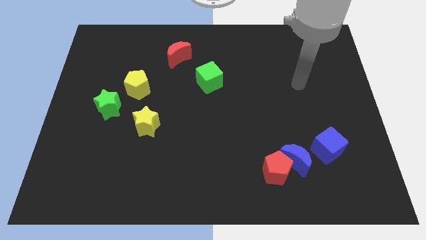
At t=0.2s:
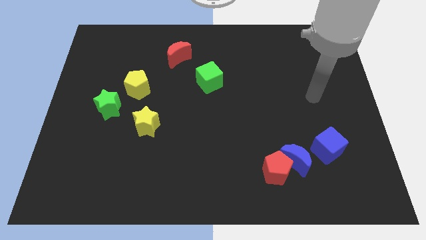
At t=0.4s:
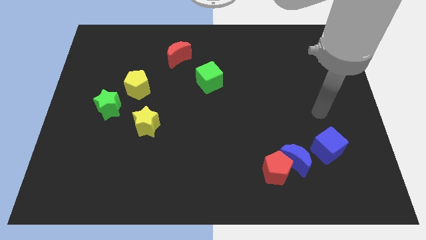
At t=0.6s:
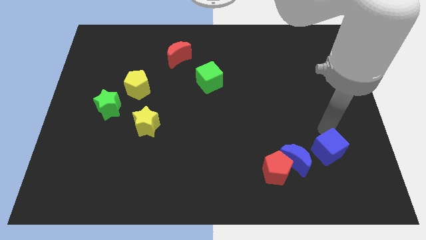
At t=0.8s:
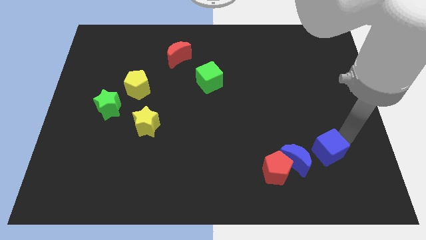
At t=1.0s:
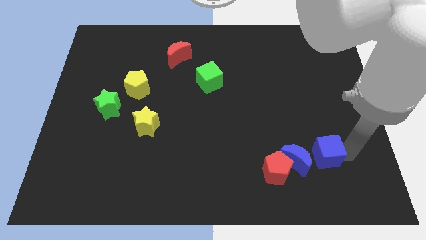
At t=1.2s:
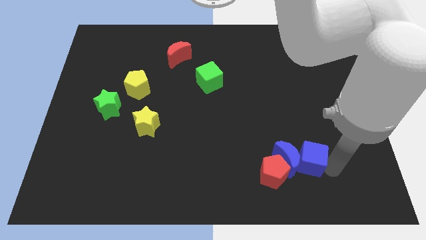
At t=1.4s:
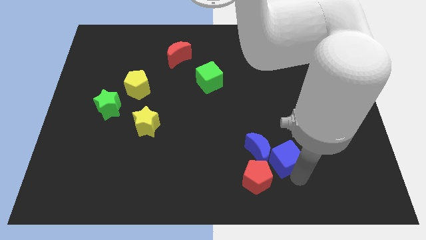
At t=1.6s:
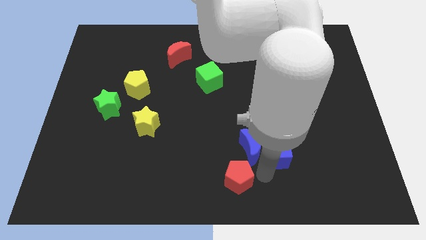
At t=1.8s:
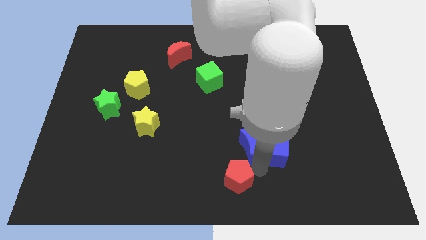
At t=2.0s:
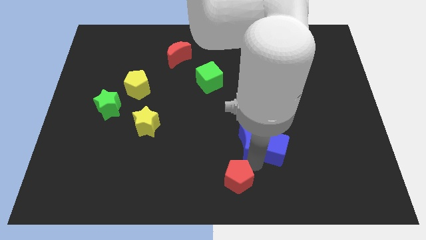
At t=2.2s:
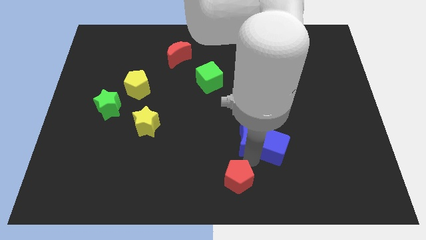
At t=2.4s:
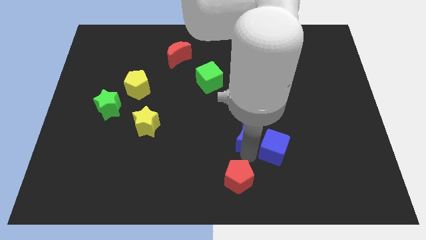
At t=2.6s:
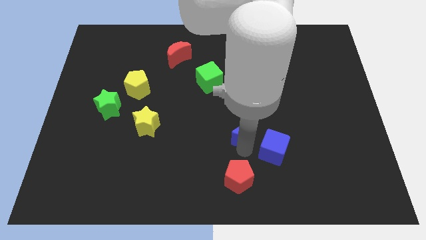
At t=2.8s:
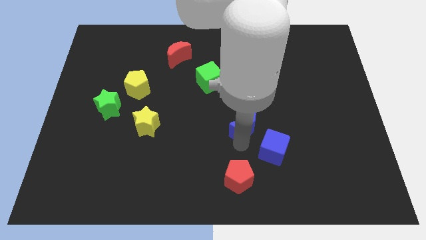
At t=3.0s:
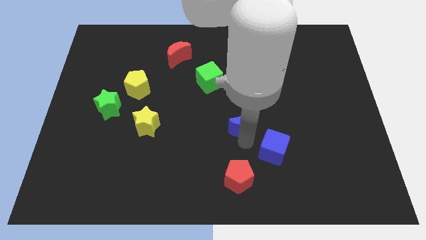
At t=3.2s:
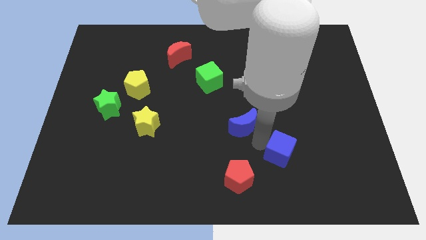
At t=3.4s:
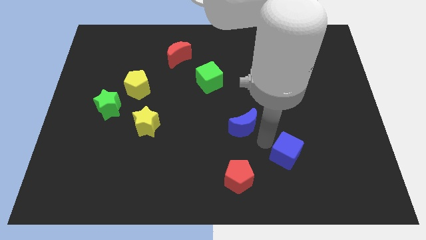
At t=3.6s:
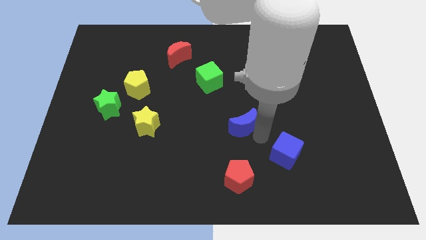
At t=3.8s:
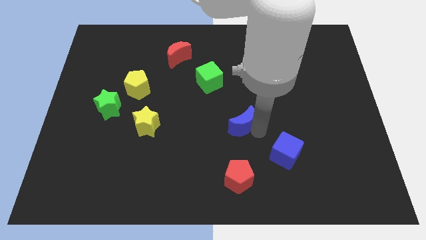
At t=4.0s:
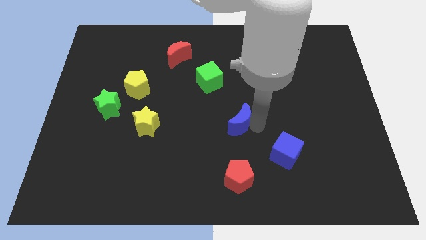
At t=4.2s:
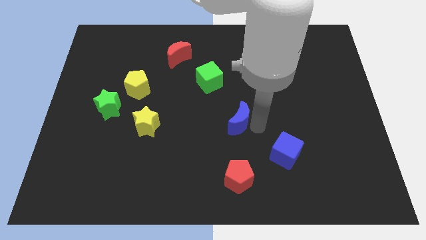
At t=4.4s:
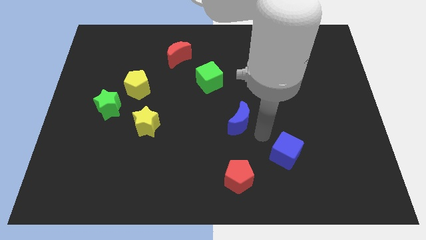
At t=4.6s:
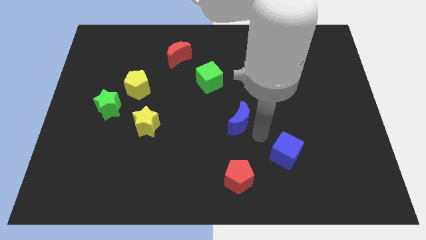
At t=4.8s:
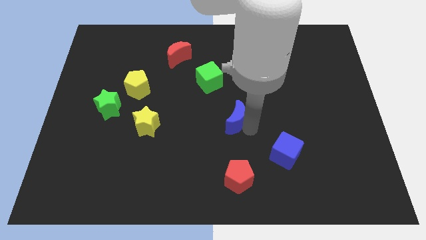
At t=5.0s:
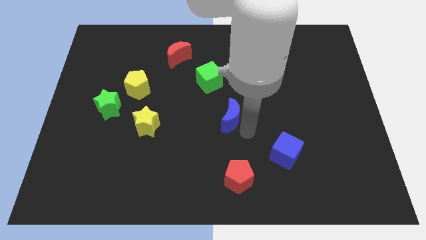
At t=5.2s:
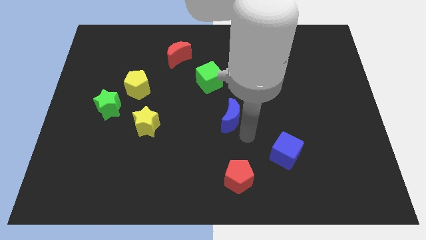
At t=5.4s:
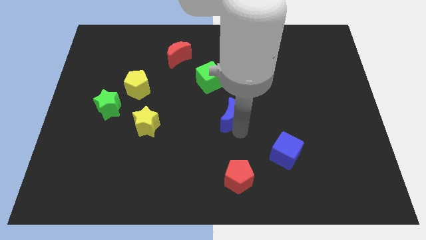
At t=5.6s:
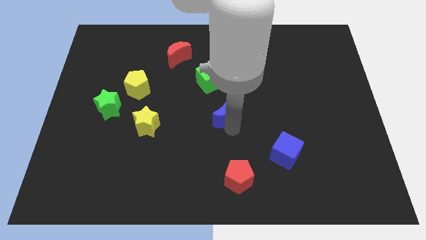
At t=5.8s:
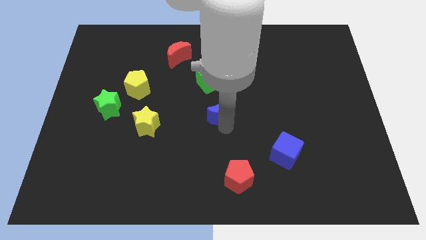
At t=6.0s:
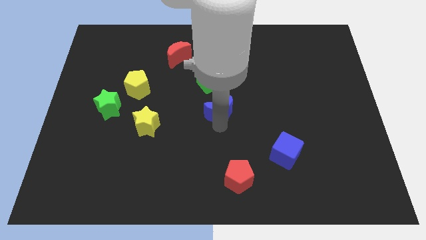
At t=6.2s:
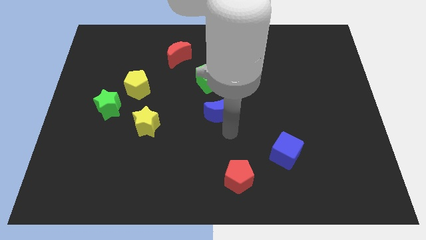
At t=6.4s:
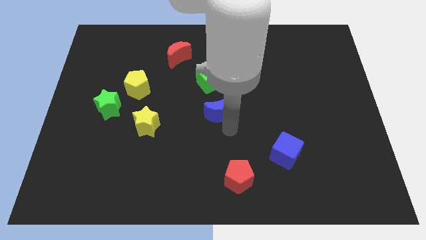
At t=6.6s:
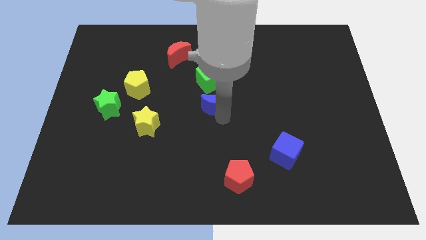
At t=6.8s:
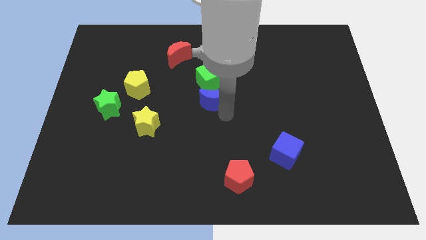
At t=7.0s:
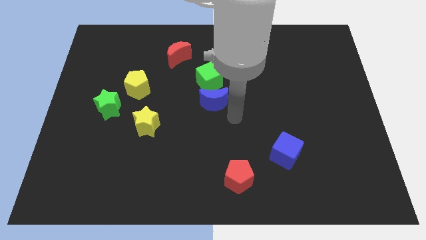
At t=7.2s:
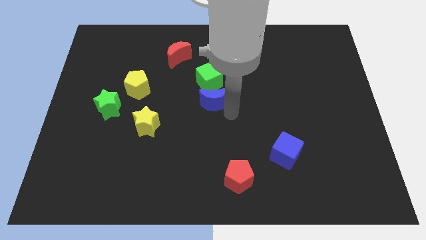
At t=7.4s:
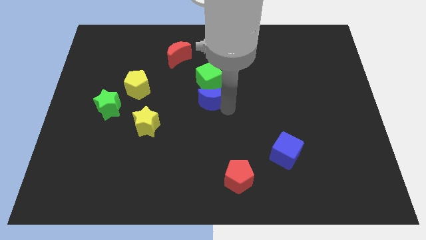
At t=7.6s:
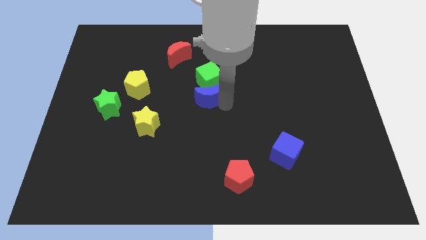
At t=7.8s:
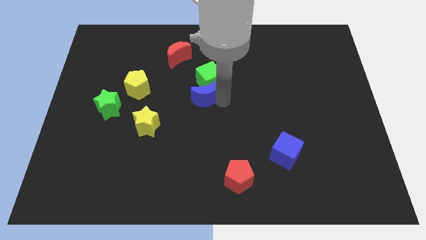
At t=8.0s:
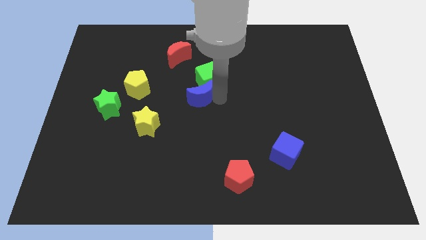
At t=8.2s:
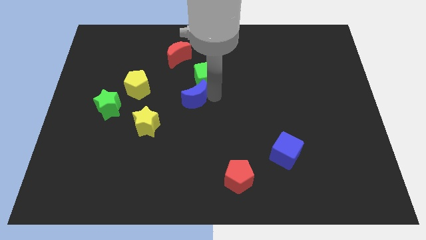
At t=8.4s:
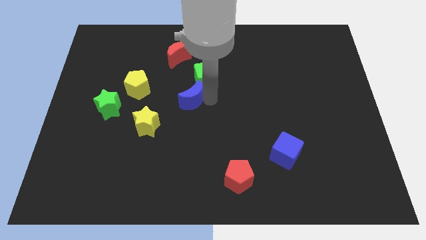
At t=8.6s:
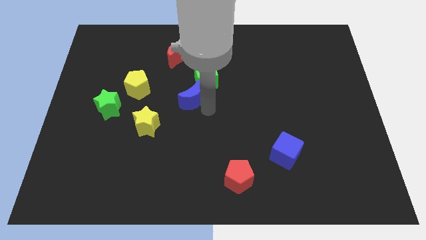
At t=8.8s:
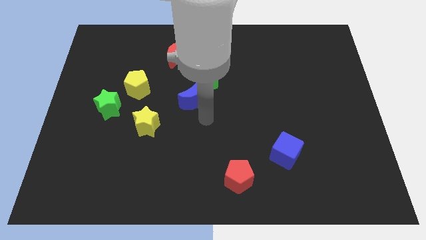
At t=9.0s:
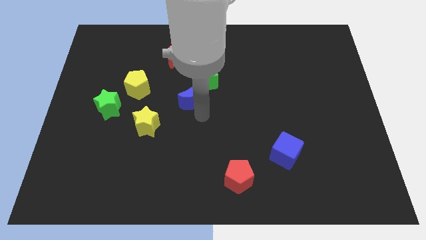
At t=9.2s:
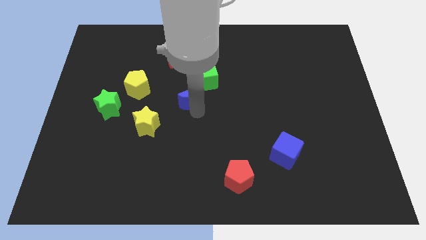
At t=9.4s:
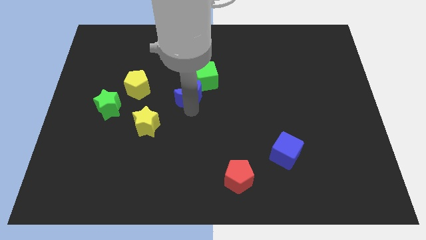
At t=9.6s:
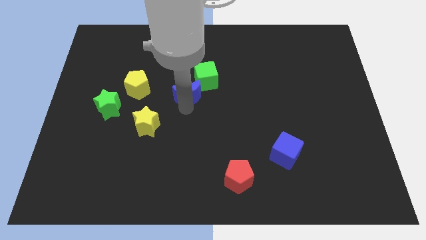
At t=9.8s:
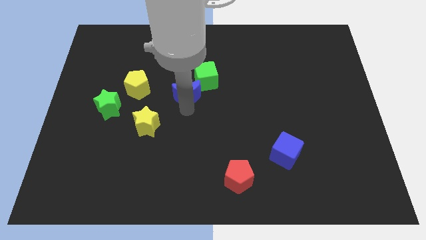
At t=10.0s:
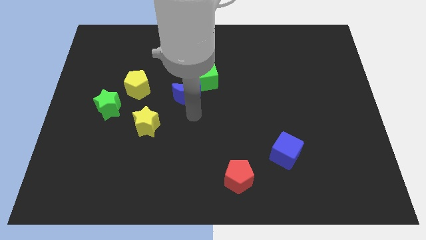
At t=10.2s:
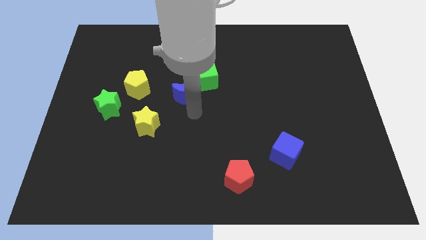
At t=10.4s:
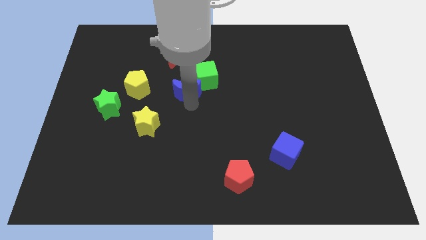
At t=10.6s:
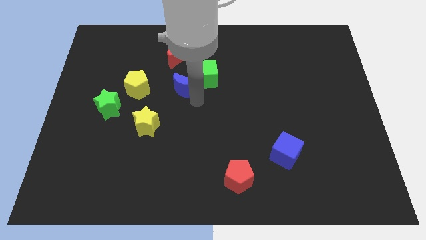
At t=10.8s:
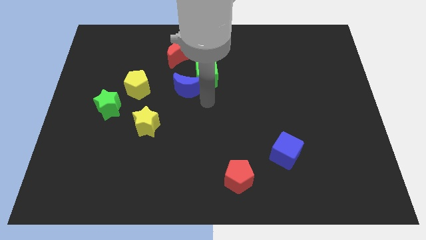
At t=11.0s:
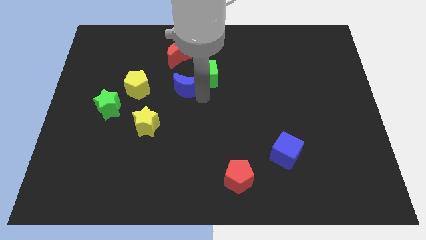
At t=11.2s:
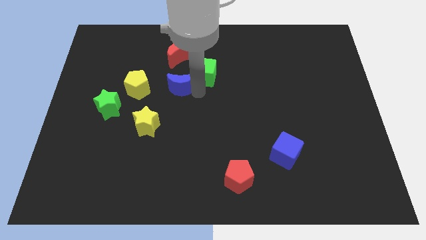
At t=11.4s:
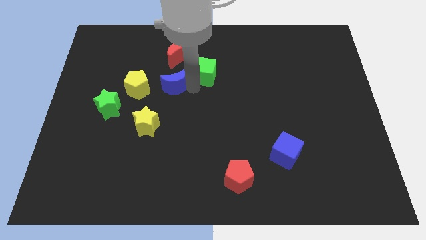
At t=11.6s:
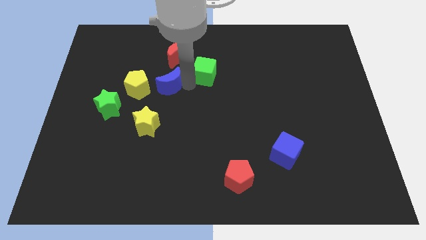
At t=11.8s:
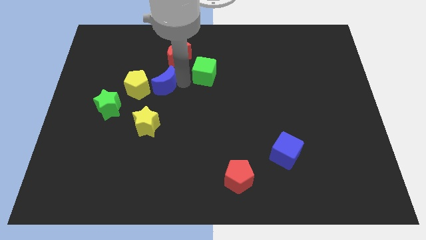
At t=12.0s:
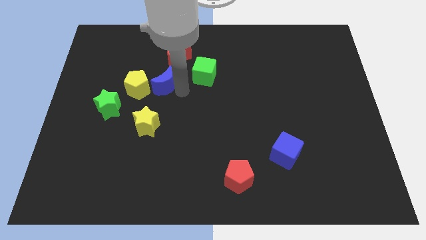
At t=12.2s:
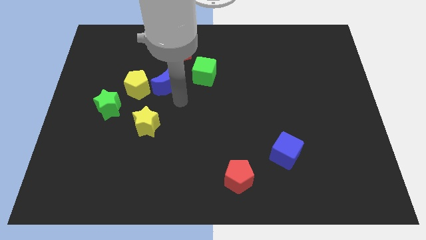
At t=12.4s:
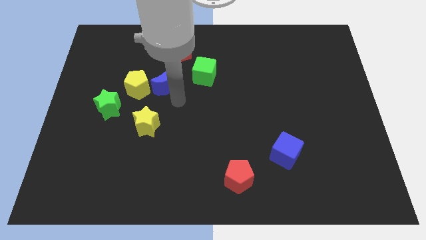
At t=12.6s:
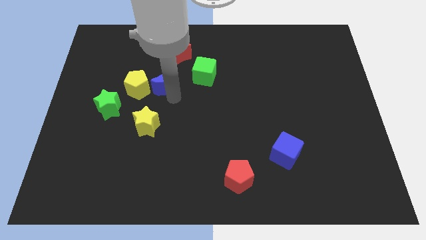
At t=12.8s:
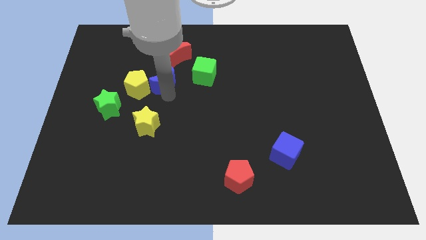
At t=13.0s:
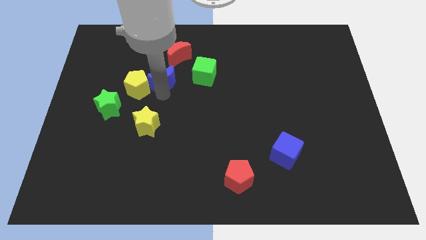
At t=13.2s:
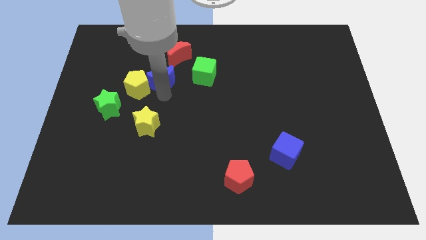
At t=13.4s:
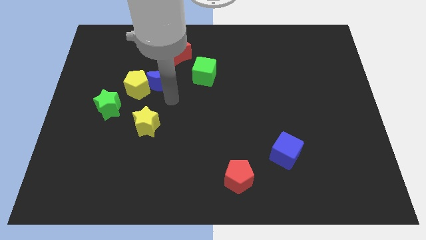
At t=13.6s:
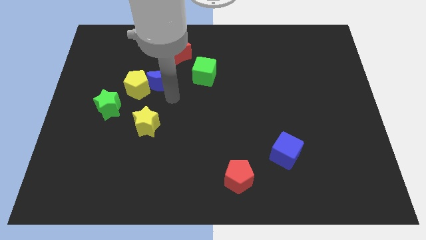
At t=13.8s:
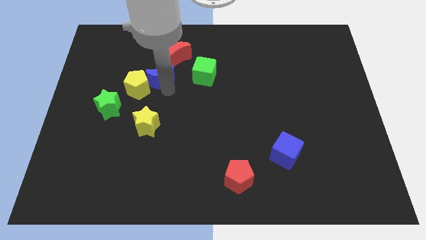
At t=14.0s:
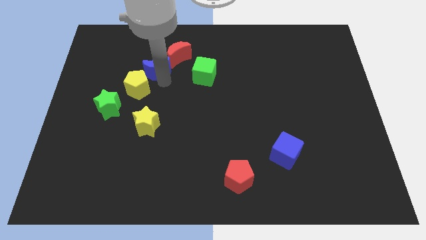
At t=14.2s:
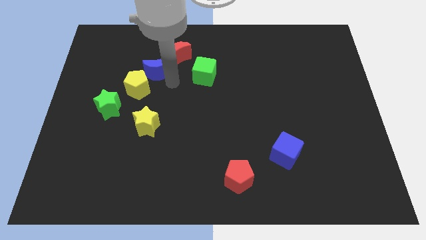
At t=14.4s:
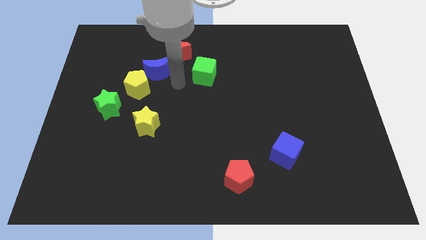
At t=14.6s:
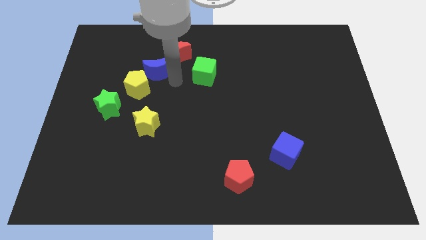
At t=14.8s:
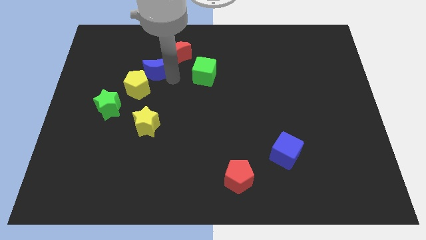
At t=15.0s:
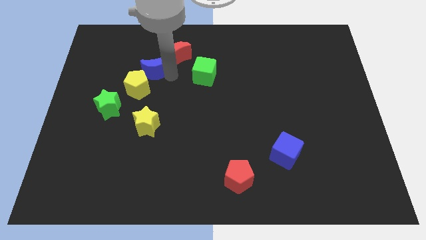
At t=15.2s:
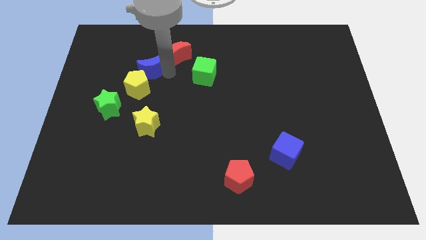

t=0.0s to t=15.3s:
put the blue moon just left of the red moon
